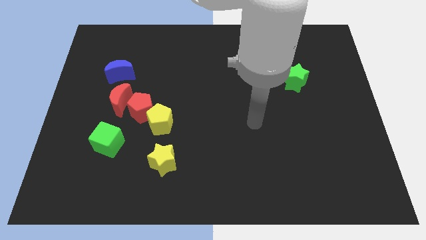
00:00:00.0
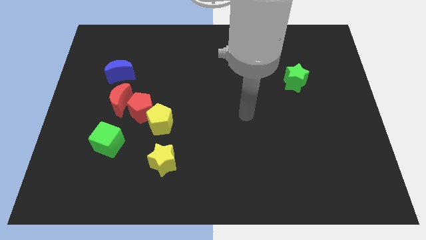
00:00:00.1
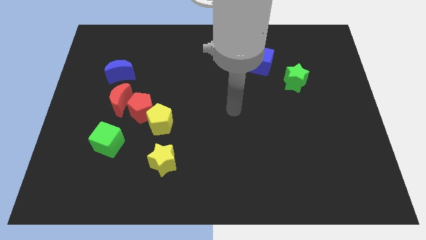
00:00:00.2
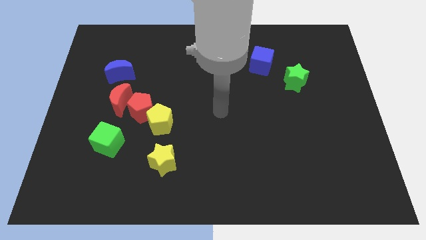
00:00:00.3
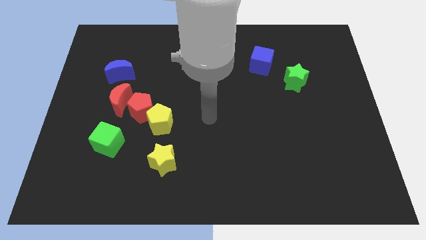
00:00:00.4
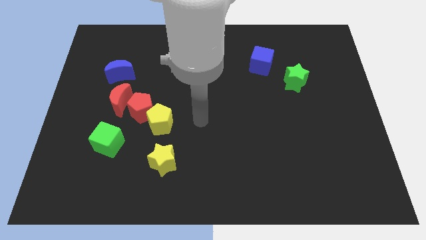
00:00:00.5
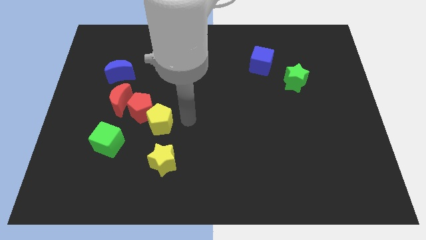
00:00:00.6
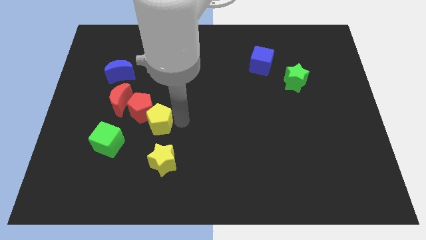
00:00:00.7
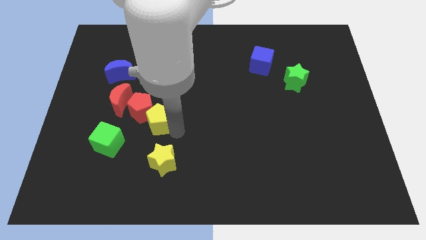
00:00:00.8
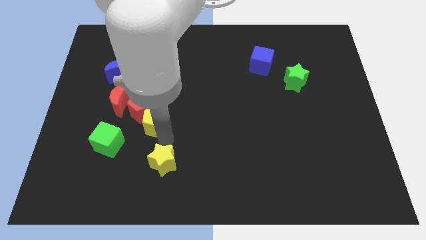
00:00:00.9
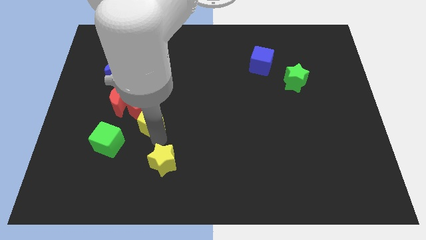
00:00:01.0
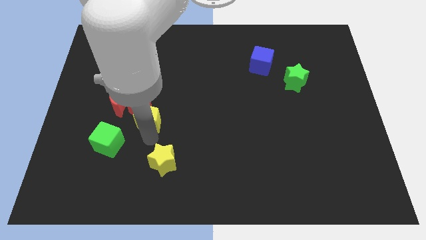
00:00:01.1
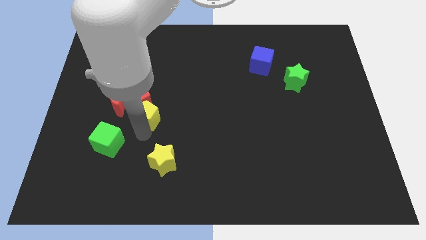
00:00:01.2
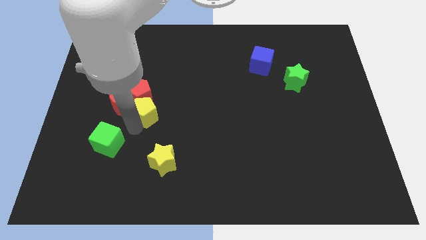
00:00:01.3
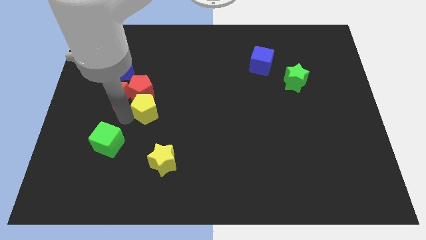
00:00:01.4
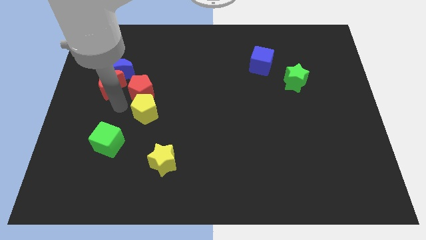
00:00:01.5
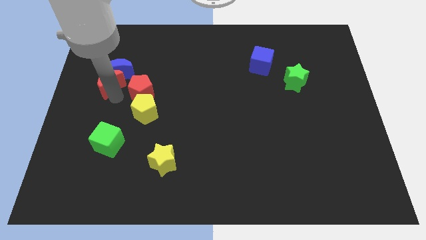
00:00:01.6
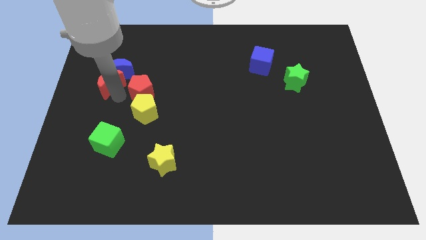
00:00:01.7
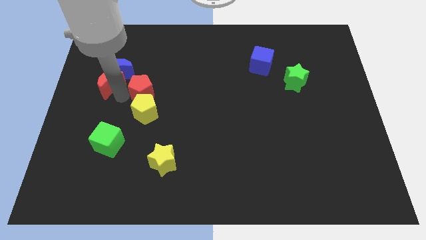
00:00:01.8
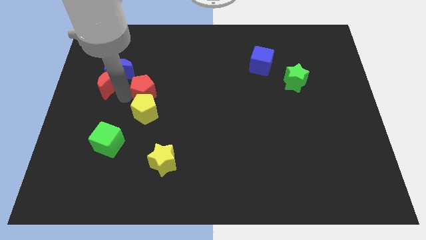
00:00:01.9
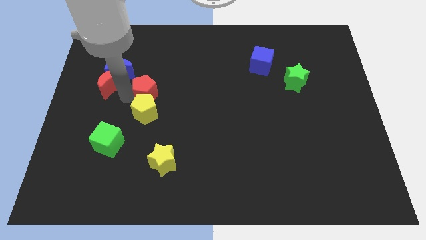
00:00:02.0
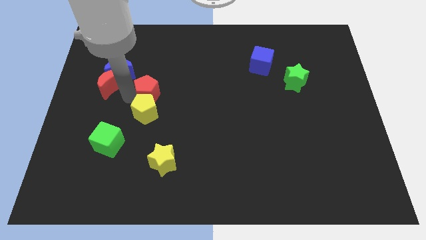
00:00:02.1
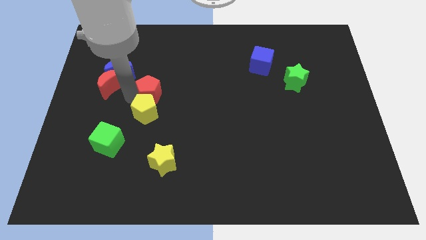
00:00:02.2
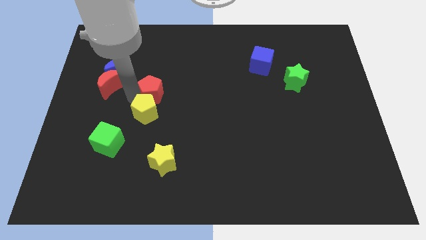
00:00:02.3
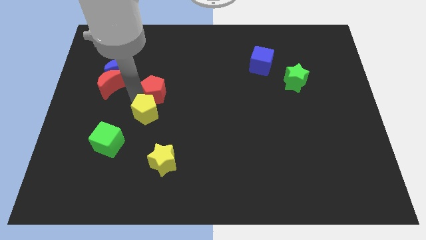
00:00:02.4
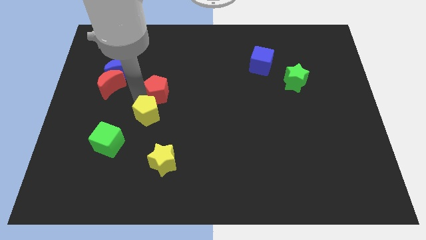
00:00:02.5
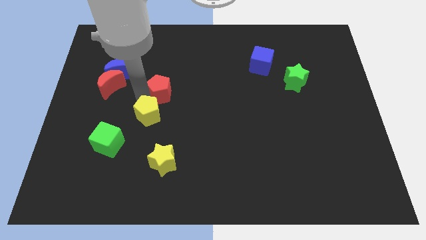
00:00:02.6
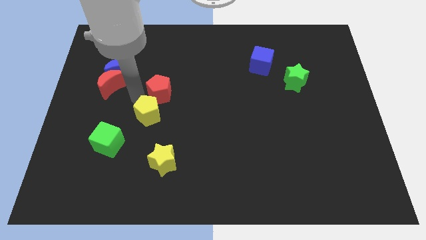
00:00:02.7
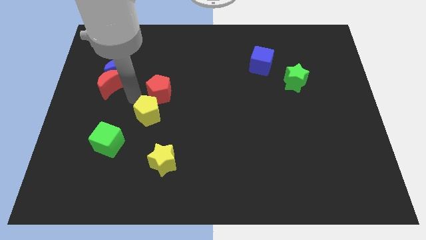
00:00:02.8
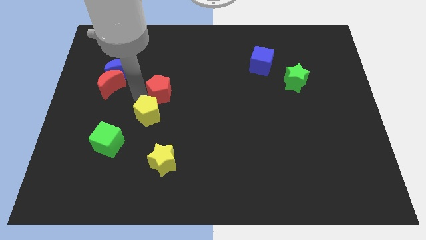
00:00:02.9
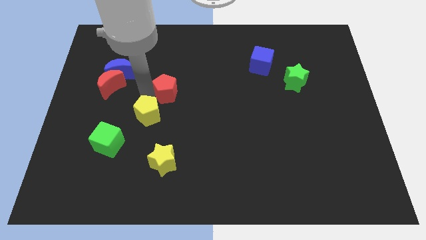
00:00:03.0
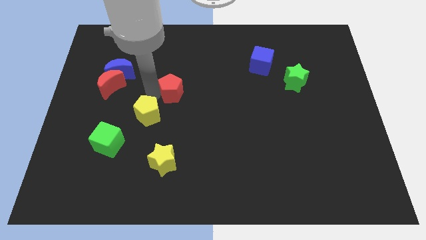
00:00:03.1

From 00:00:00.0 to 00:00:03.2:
pull the red pentagon apart from the yellow pentagon and red moon

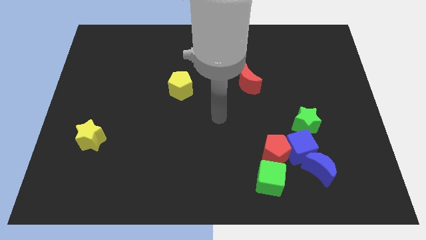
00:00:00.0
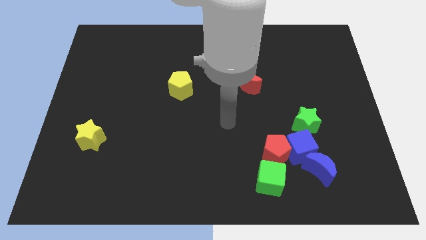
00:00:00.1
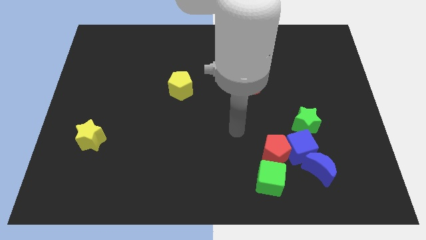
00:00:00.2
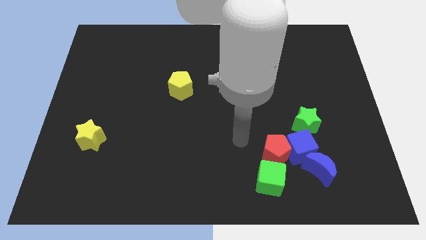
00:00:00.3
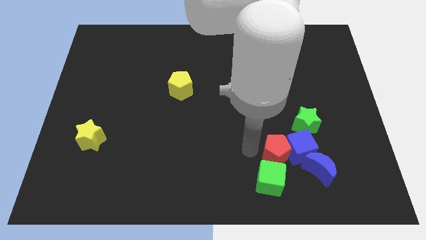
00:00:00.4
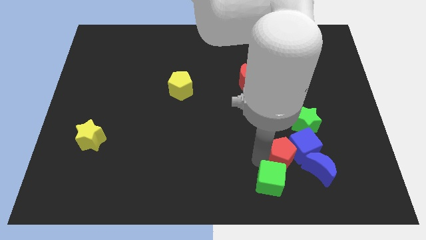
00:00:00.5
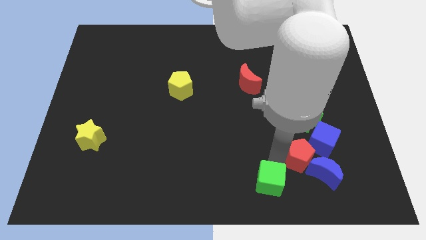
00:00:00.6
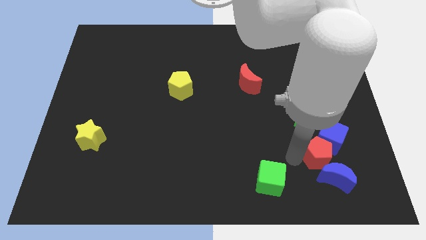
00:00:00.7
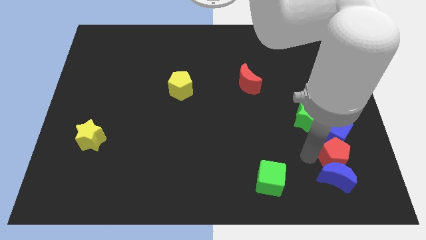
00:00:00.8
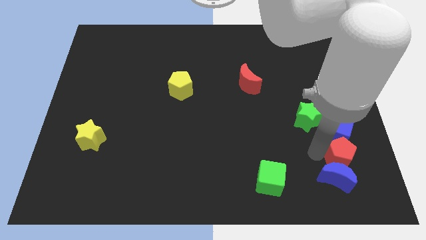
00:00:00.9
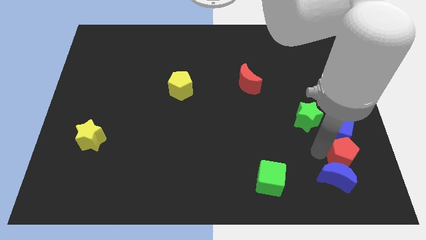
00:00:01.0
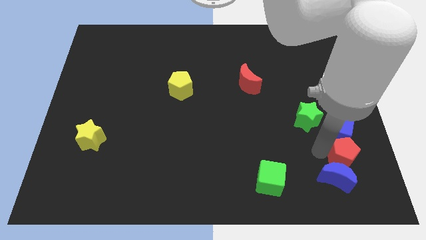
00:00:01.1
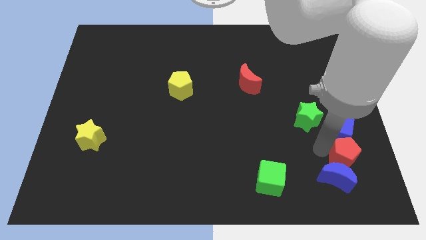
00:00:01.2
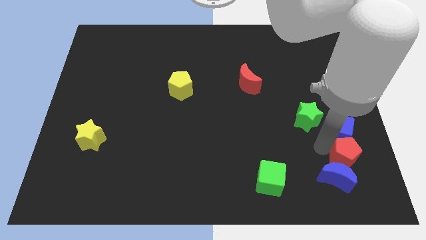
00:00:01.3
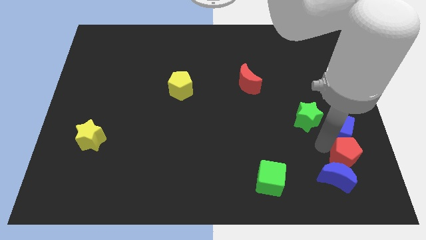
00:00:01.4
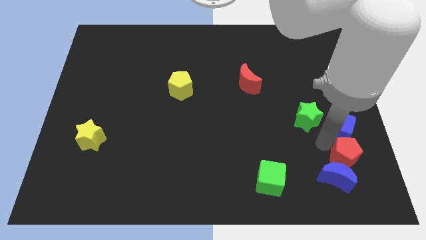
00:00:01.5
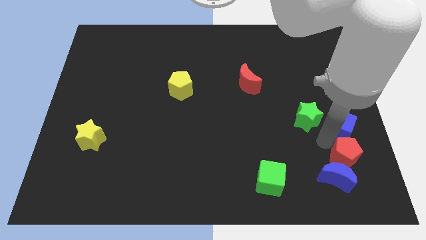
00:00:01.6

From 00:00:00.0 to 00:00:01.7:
move the blue cube away from the group

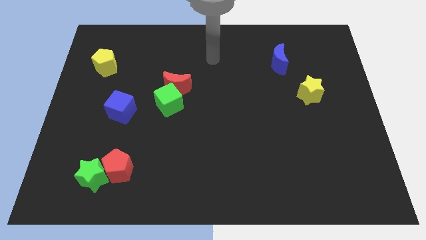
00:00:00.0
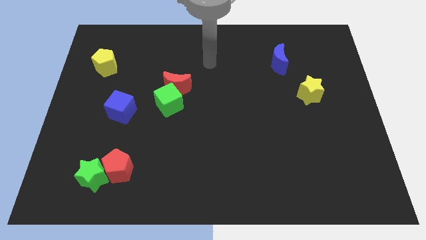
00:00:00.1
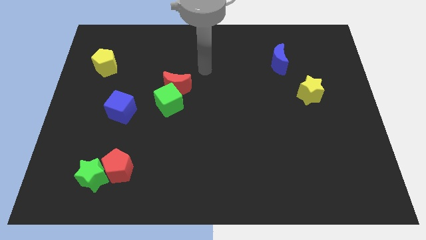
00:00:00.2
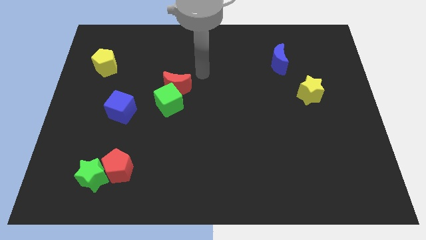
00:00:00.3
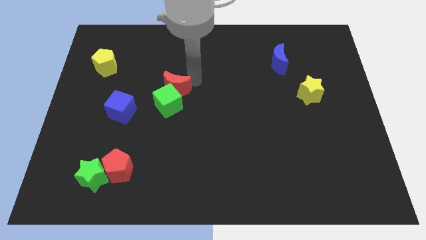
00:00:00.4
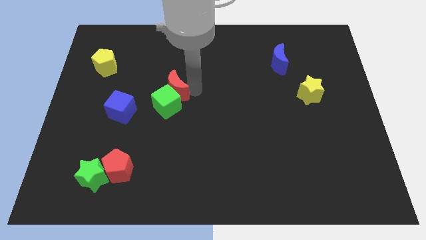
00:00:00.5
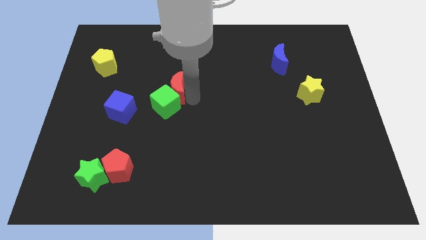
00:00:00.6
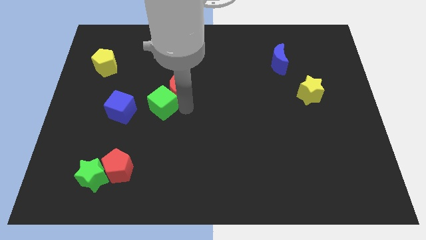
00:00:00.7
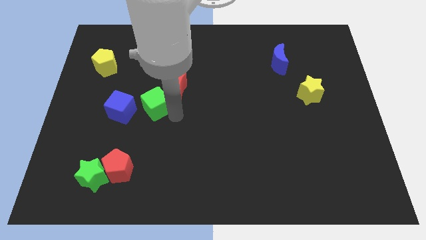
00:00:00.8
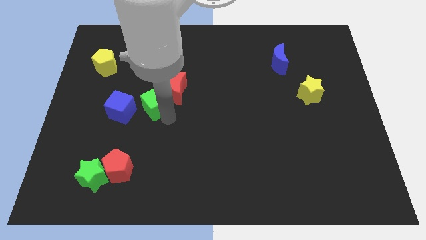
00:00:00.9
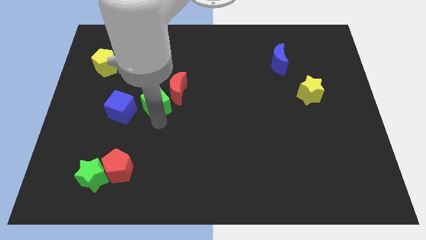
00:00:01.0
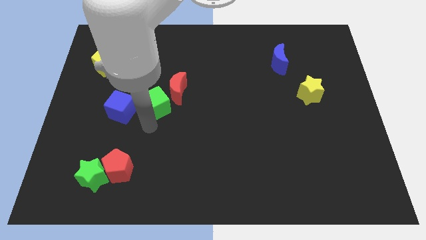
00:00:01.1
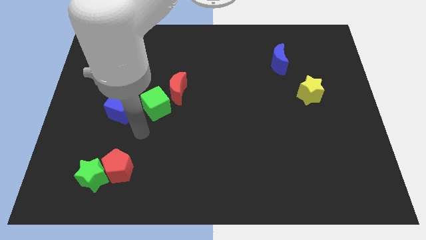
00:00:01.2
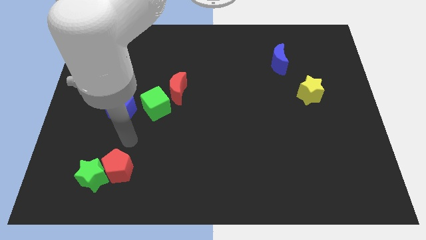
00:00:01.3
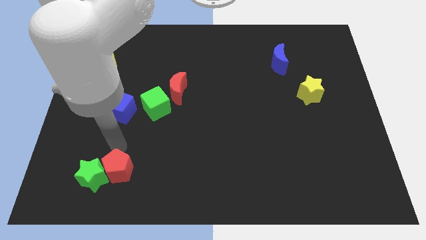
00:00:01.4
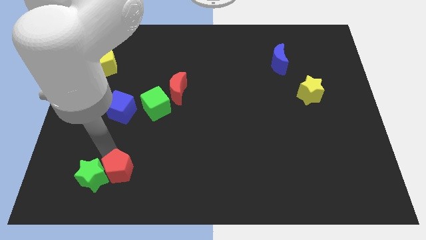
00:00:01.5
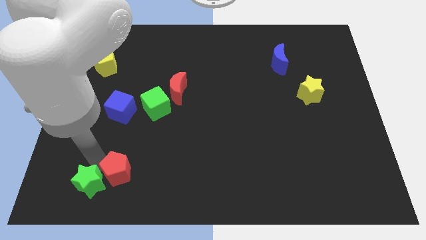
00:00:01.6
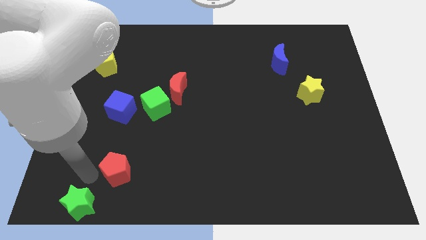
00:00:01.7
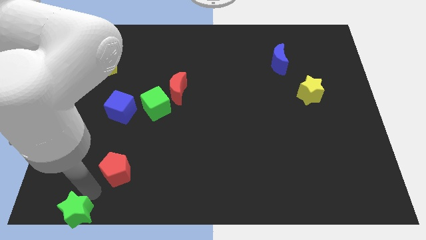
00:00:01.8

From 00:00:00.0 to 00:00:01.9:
separate the red pentagon from the green star

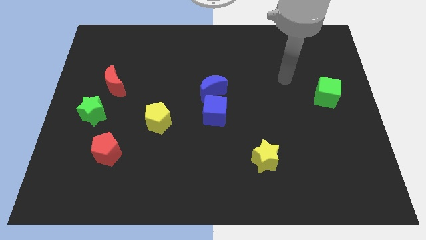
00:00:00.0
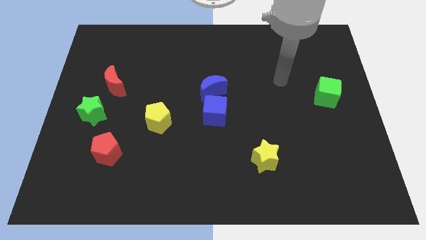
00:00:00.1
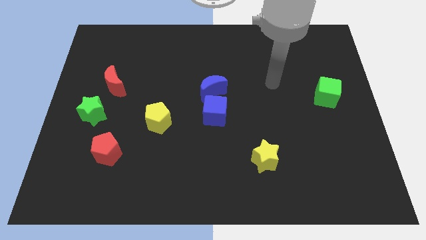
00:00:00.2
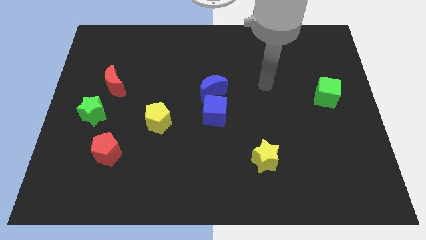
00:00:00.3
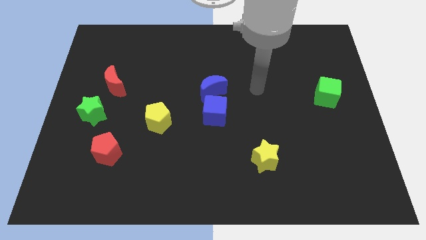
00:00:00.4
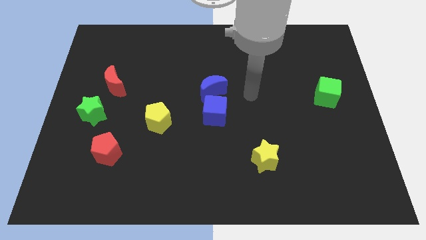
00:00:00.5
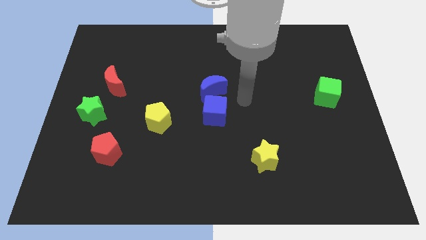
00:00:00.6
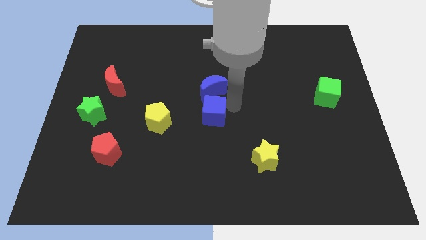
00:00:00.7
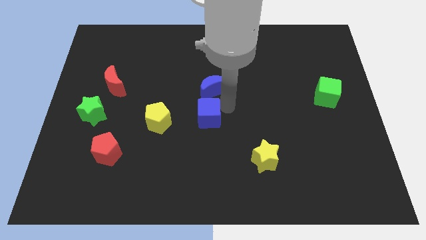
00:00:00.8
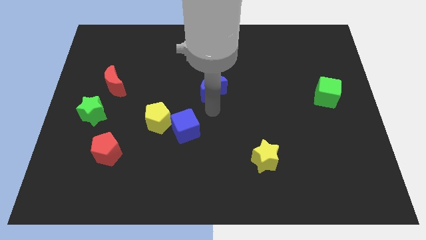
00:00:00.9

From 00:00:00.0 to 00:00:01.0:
separate the blue moon from the blue cube

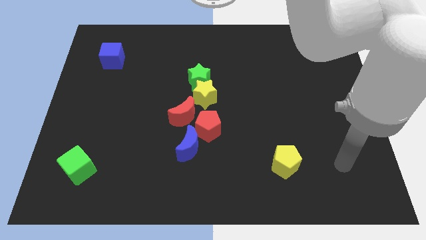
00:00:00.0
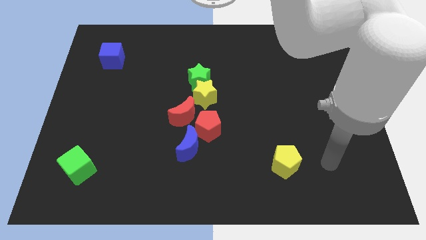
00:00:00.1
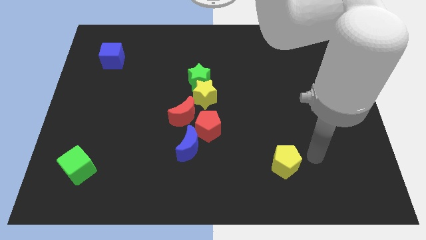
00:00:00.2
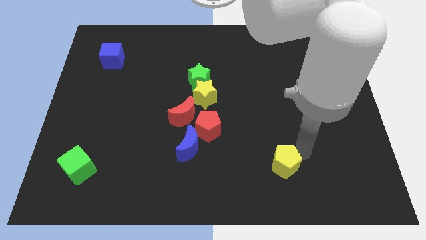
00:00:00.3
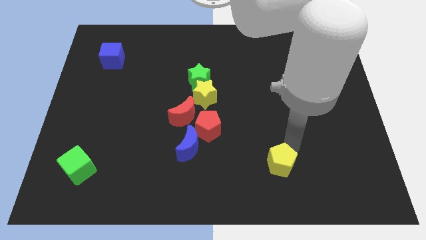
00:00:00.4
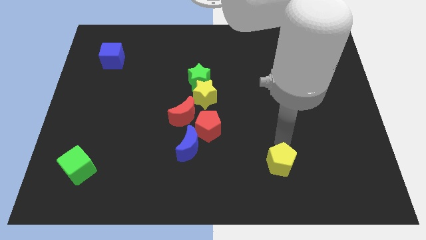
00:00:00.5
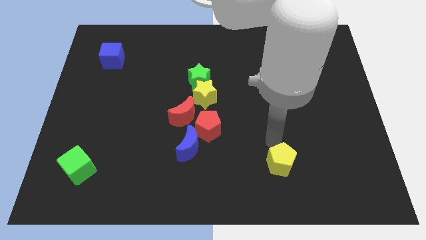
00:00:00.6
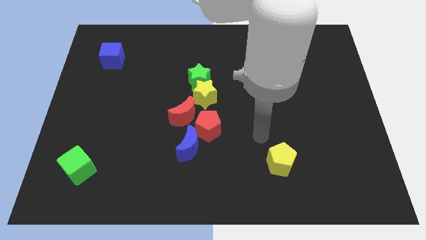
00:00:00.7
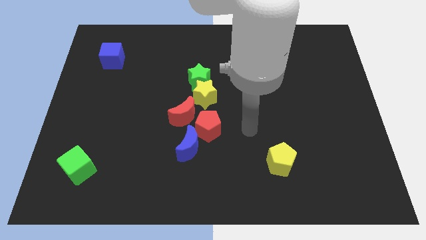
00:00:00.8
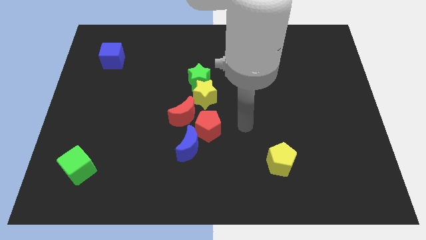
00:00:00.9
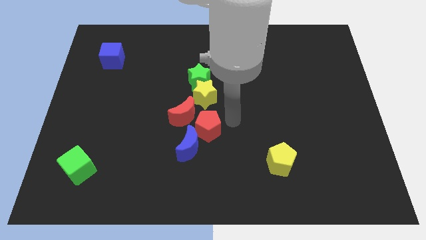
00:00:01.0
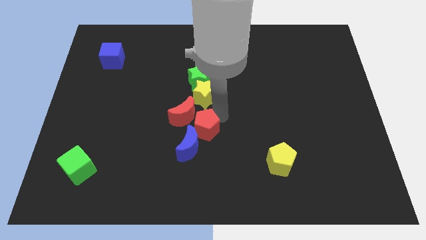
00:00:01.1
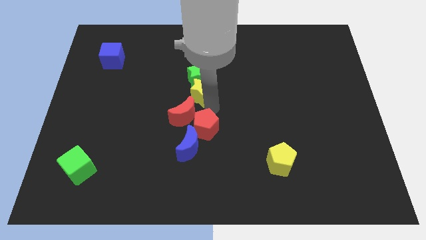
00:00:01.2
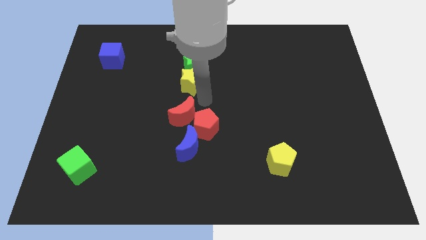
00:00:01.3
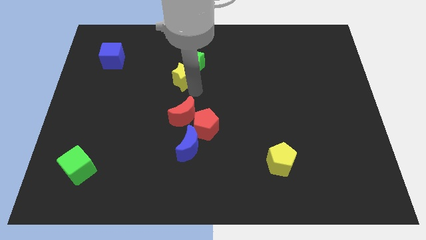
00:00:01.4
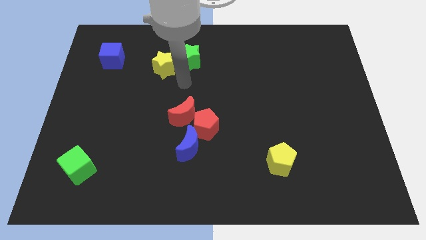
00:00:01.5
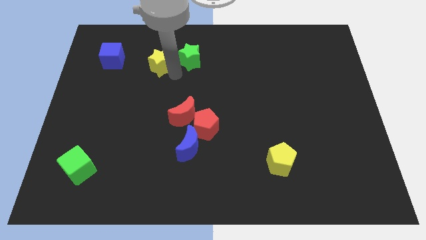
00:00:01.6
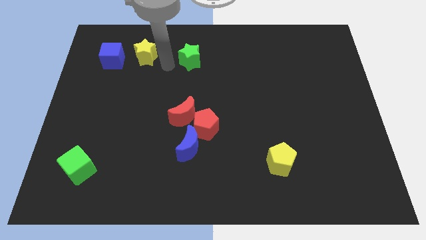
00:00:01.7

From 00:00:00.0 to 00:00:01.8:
pull the green star apart from the yellow star
